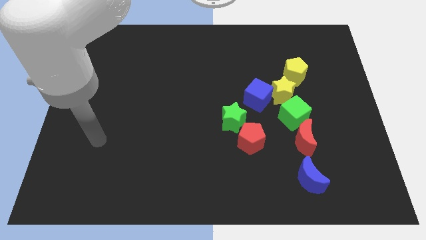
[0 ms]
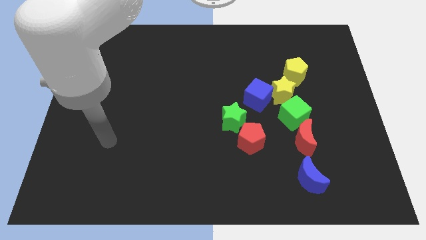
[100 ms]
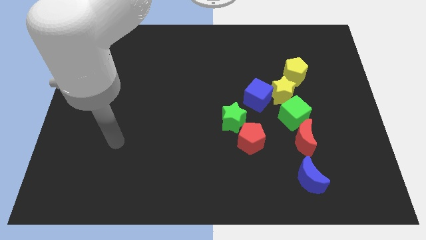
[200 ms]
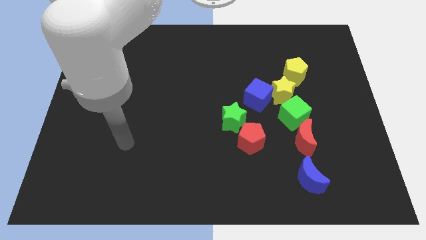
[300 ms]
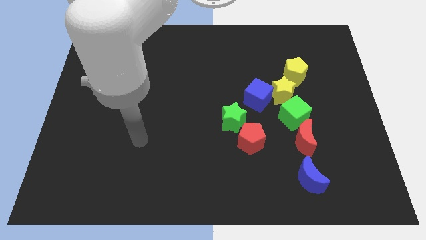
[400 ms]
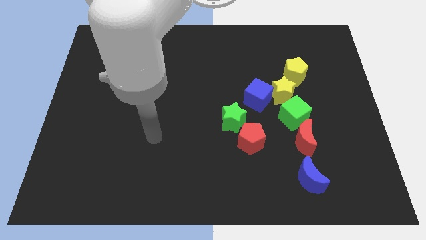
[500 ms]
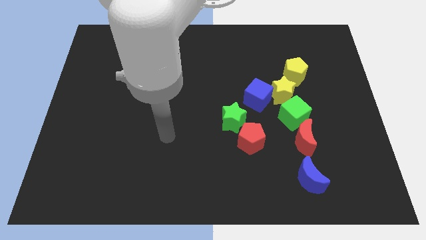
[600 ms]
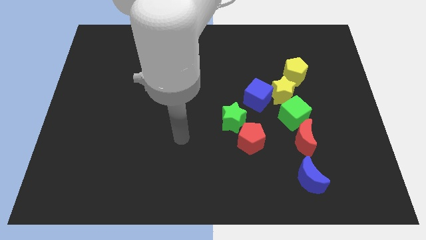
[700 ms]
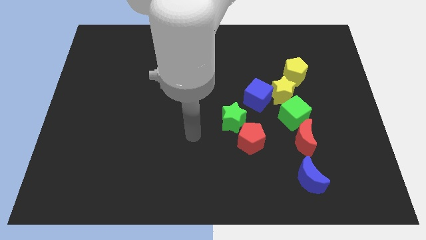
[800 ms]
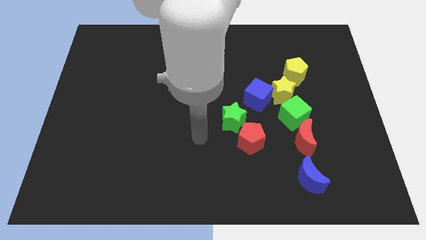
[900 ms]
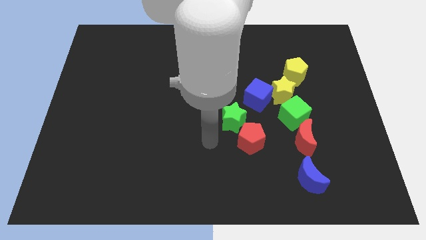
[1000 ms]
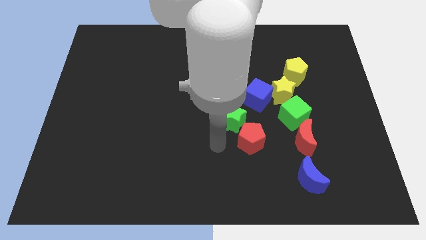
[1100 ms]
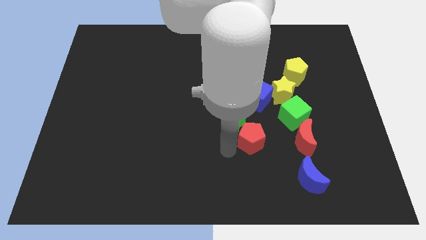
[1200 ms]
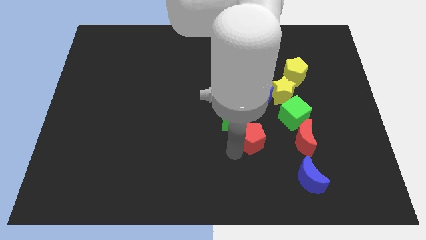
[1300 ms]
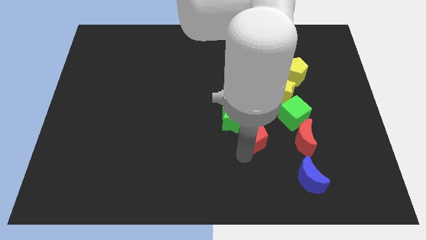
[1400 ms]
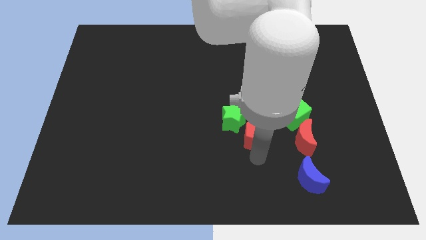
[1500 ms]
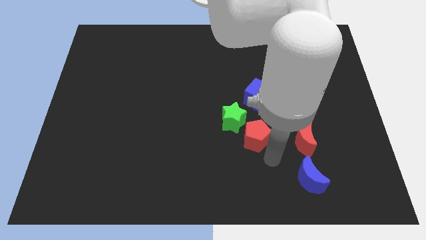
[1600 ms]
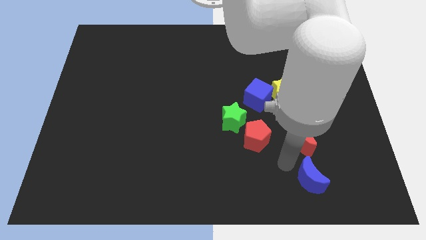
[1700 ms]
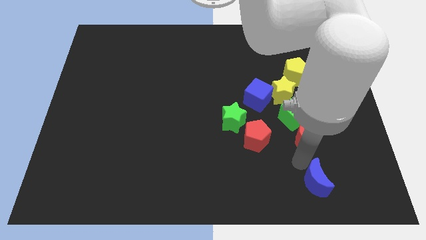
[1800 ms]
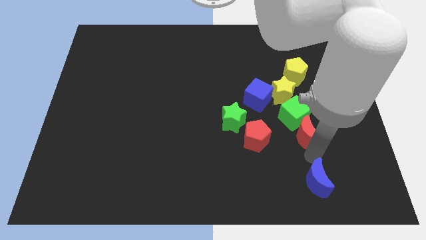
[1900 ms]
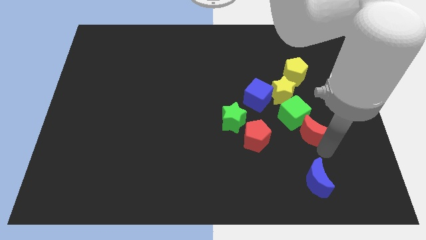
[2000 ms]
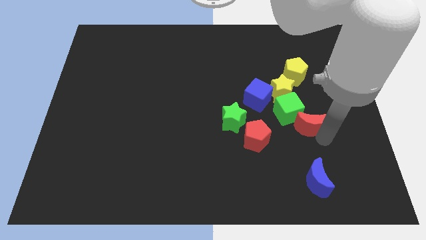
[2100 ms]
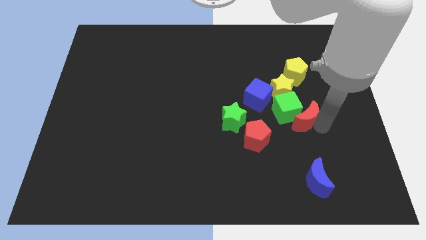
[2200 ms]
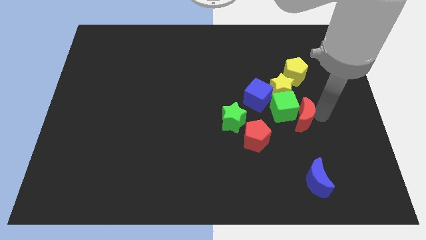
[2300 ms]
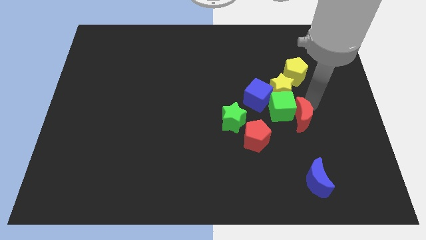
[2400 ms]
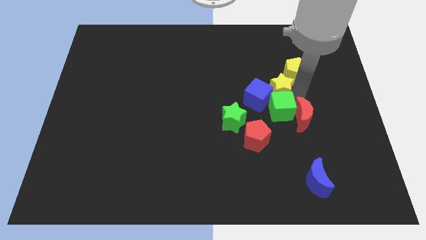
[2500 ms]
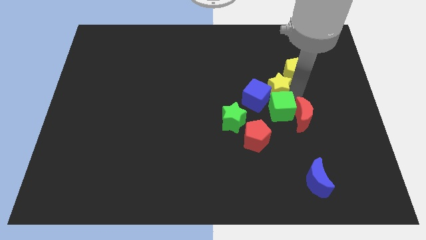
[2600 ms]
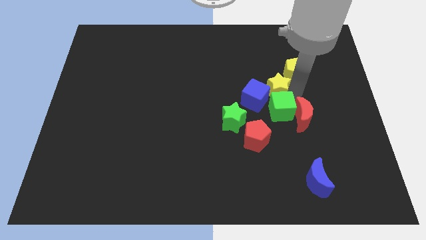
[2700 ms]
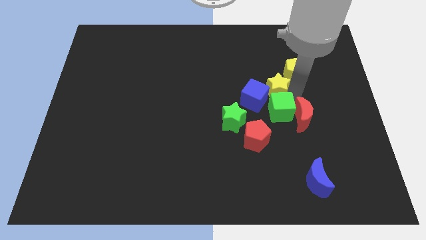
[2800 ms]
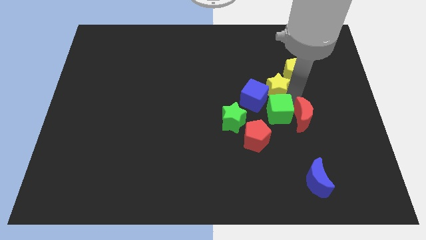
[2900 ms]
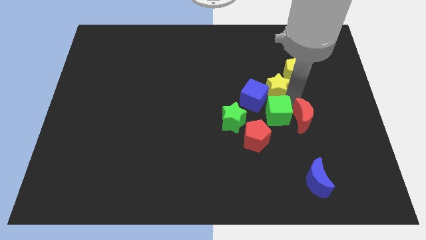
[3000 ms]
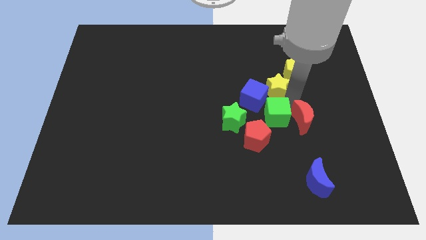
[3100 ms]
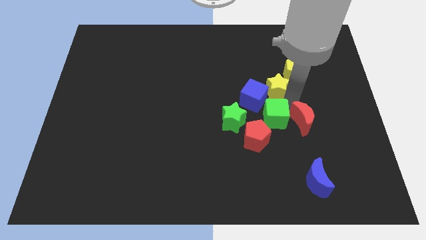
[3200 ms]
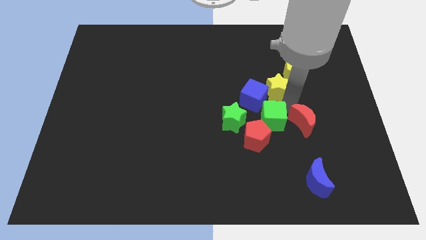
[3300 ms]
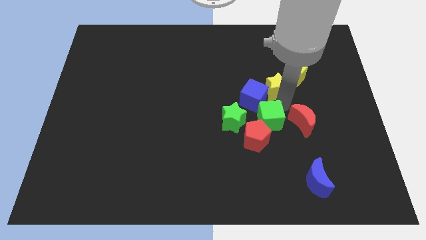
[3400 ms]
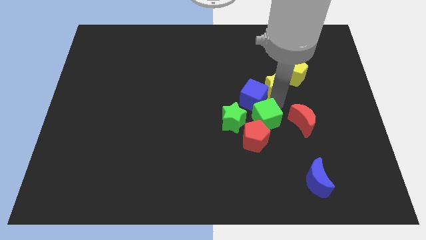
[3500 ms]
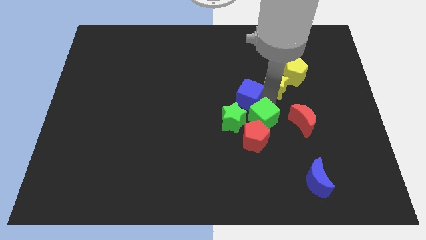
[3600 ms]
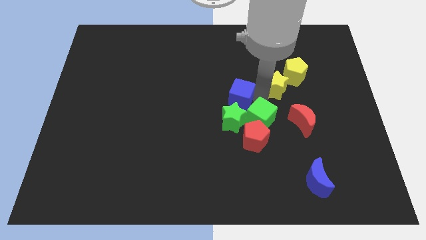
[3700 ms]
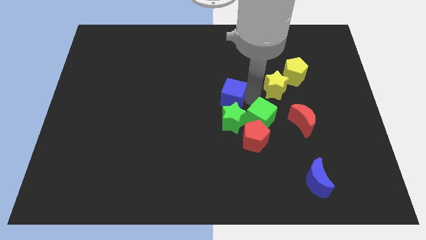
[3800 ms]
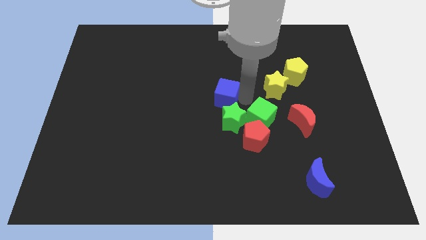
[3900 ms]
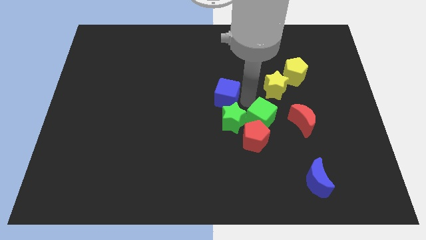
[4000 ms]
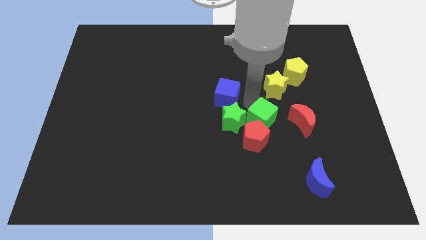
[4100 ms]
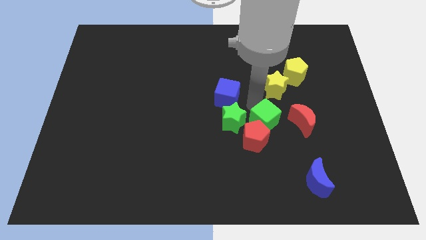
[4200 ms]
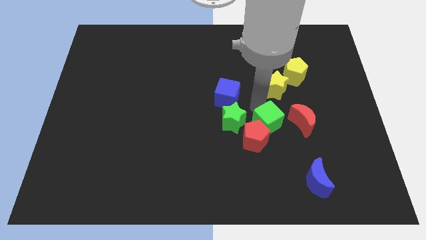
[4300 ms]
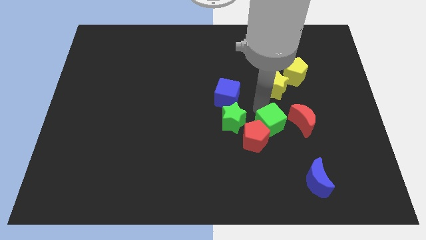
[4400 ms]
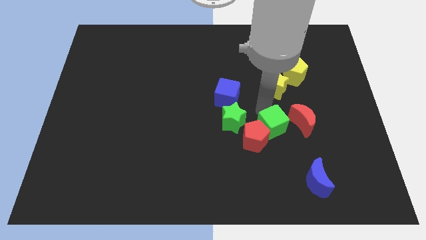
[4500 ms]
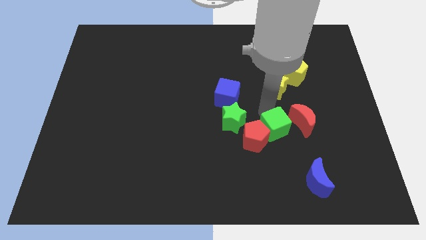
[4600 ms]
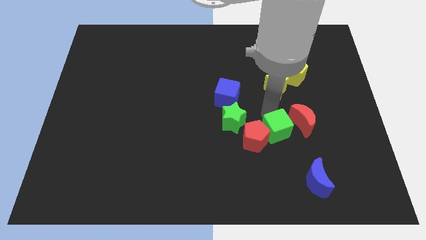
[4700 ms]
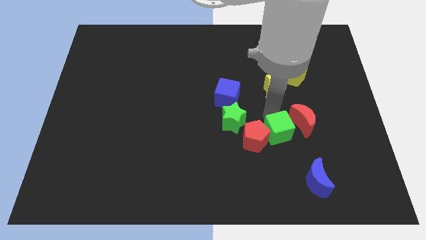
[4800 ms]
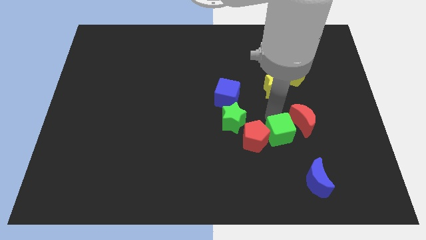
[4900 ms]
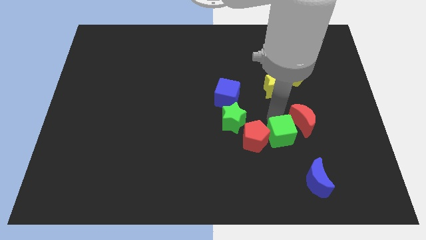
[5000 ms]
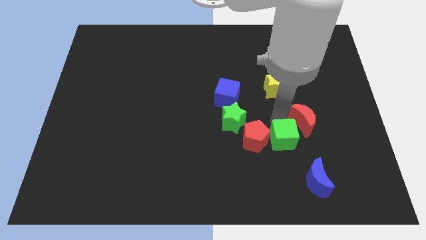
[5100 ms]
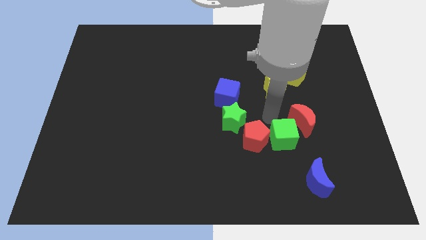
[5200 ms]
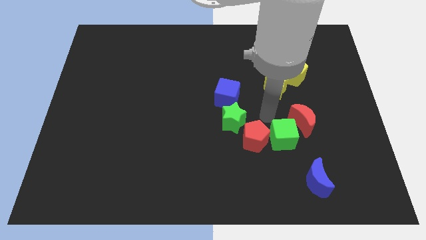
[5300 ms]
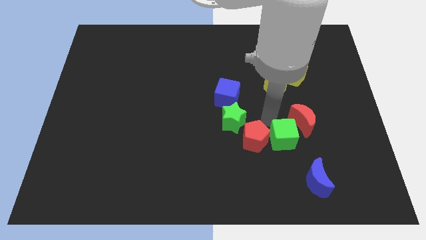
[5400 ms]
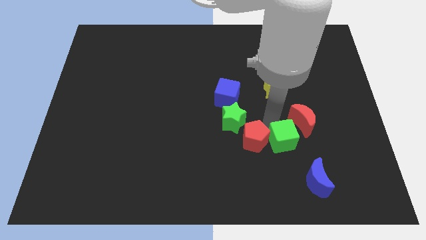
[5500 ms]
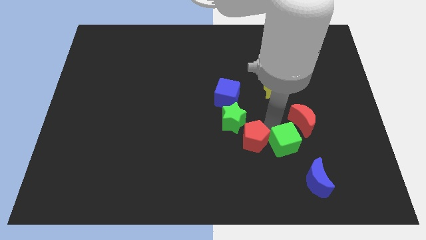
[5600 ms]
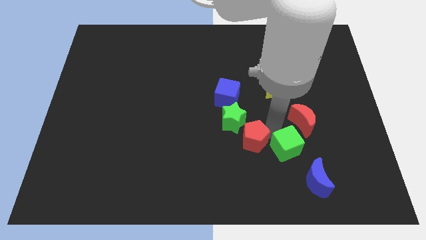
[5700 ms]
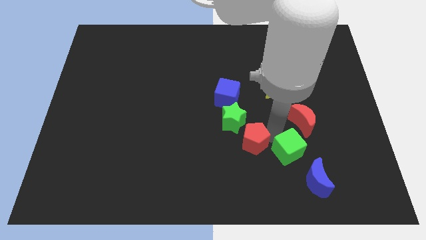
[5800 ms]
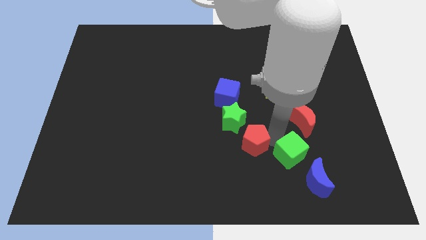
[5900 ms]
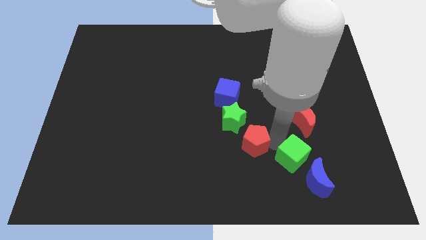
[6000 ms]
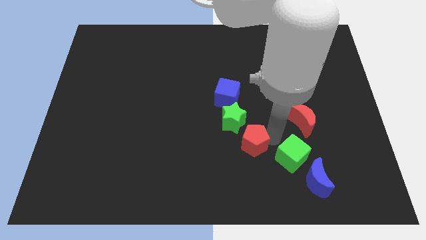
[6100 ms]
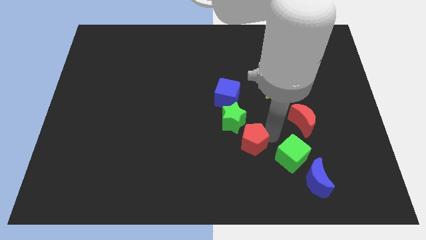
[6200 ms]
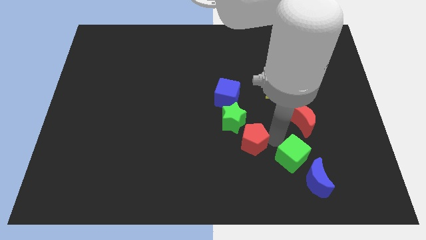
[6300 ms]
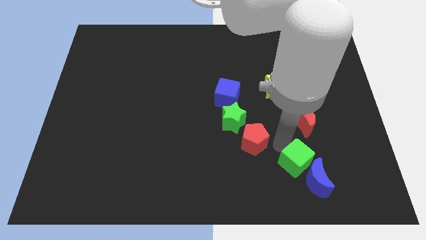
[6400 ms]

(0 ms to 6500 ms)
push the green cube to the blue moon

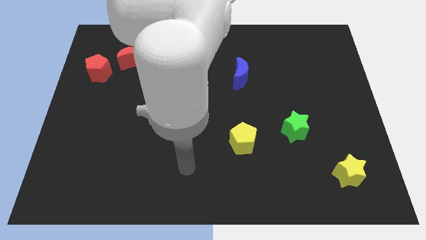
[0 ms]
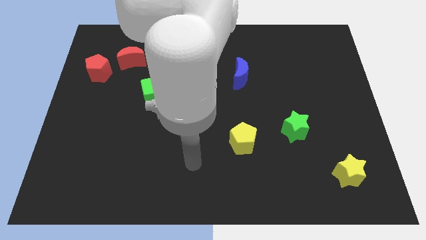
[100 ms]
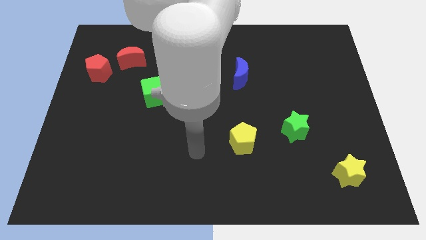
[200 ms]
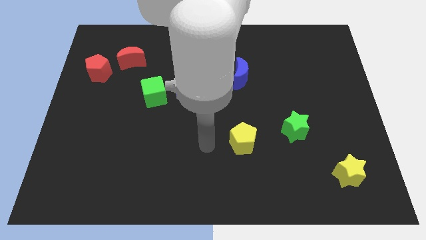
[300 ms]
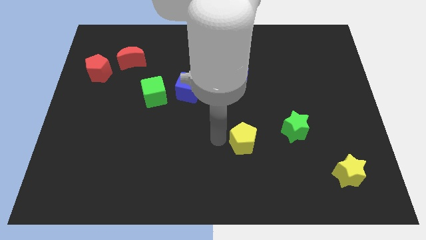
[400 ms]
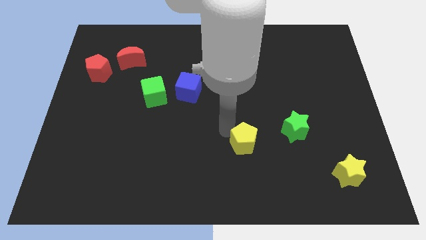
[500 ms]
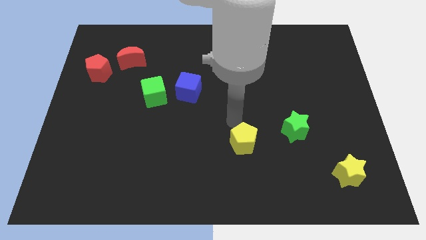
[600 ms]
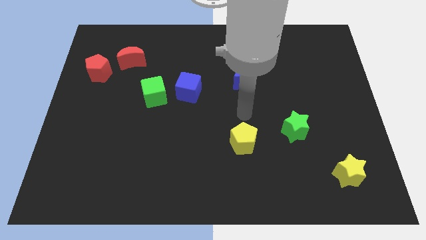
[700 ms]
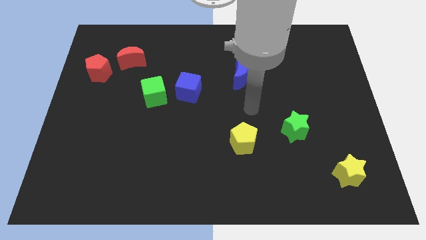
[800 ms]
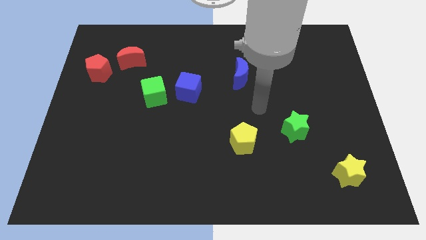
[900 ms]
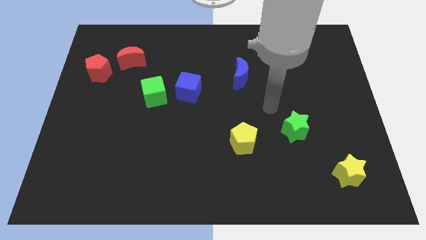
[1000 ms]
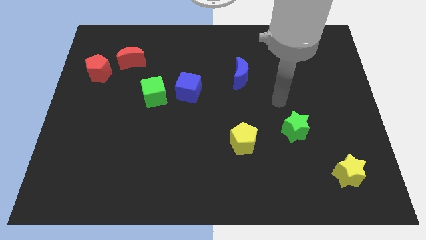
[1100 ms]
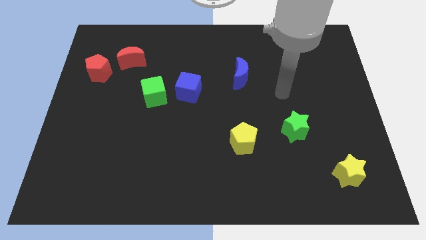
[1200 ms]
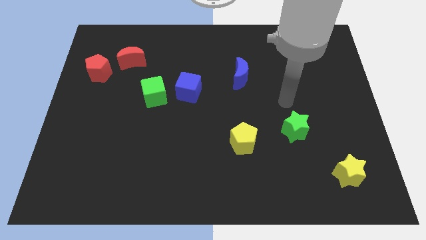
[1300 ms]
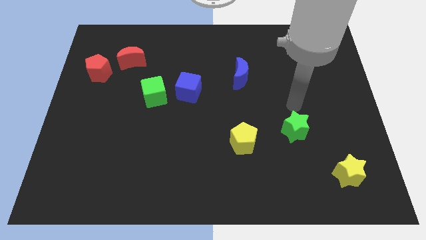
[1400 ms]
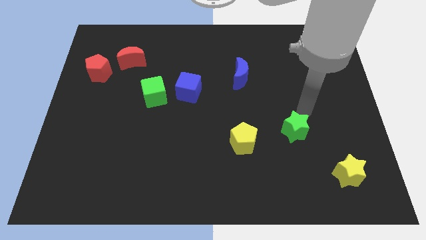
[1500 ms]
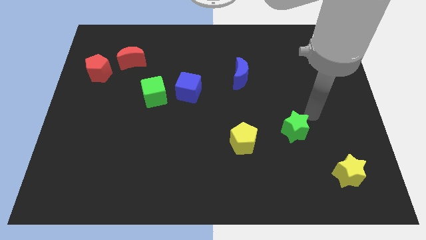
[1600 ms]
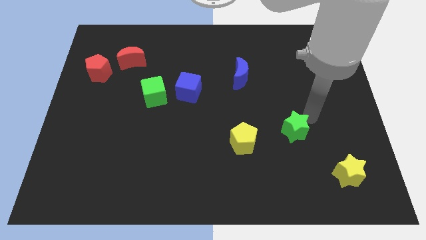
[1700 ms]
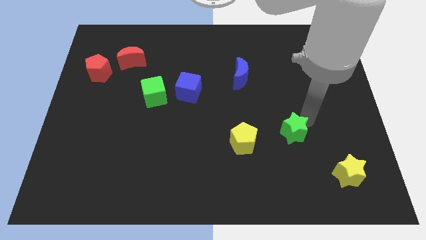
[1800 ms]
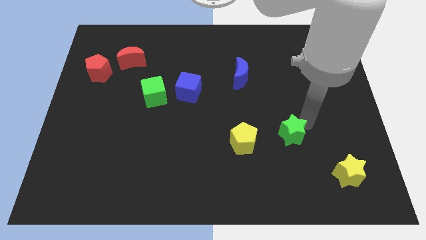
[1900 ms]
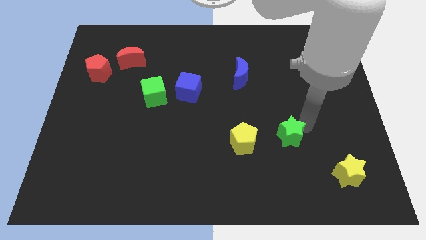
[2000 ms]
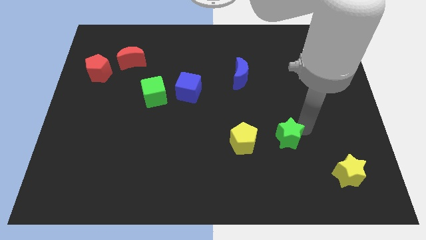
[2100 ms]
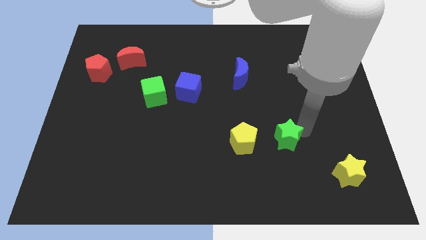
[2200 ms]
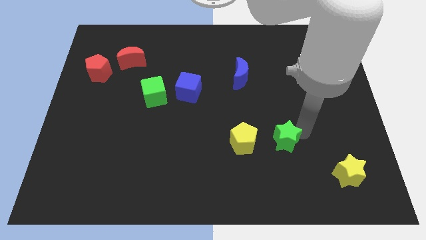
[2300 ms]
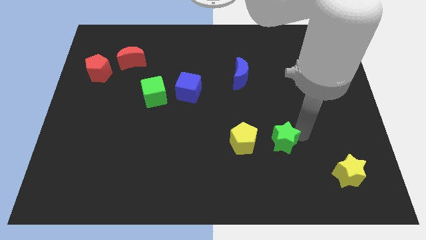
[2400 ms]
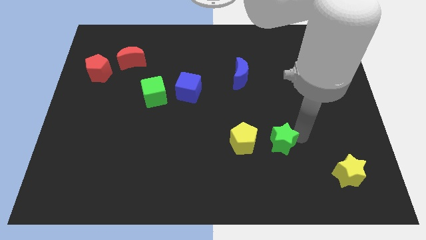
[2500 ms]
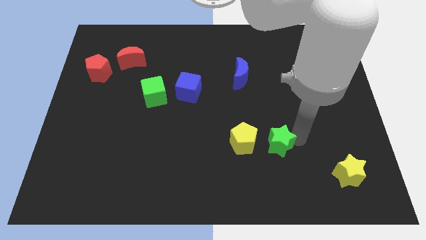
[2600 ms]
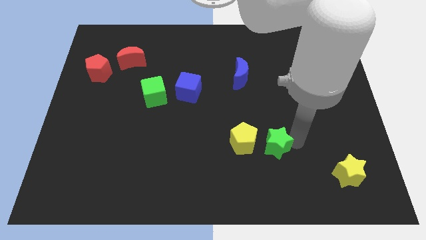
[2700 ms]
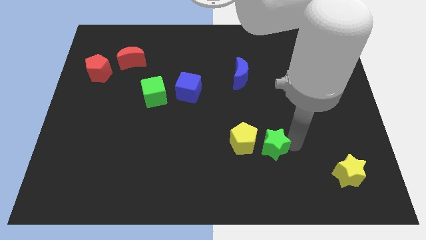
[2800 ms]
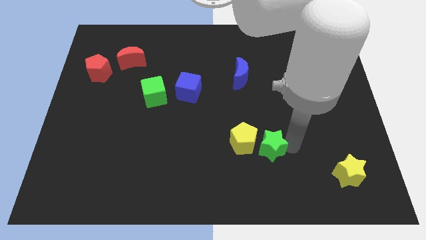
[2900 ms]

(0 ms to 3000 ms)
slide the green star next to the yellow pentagon
